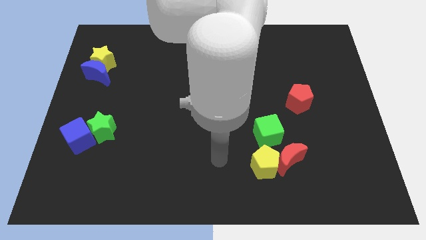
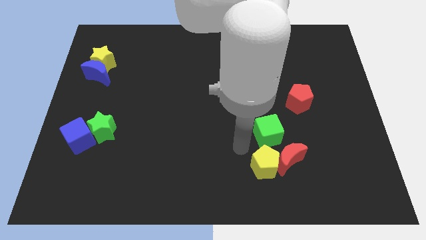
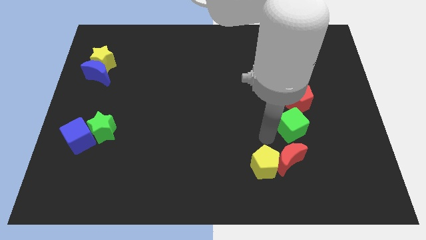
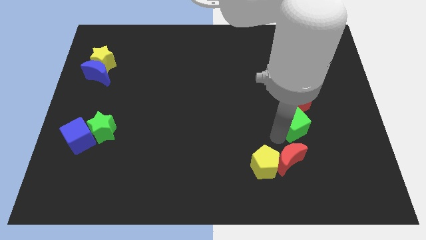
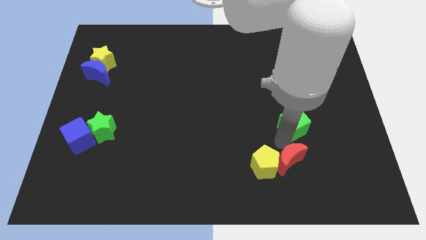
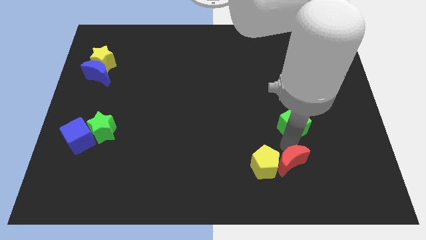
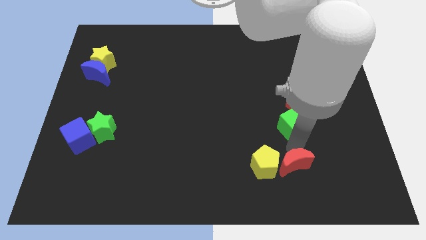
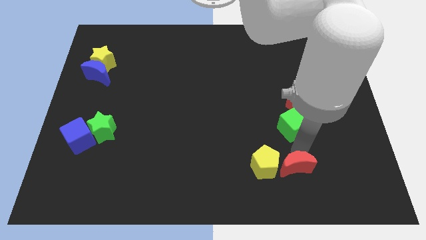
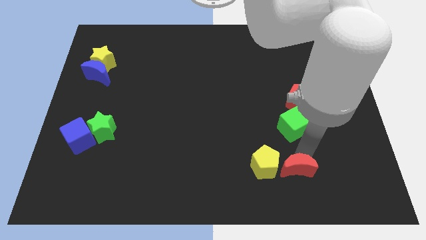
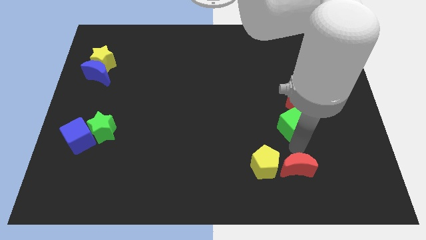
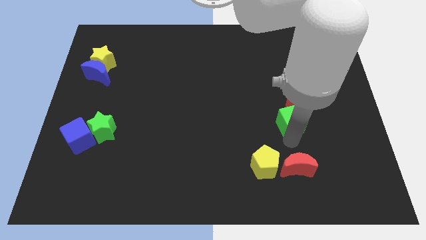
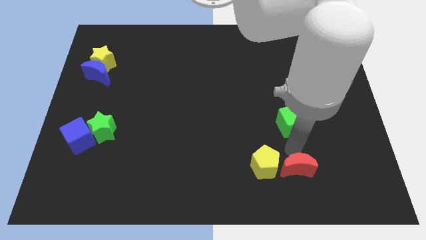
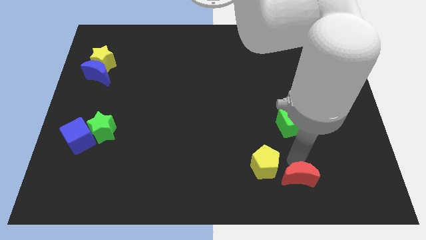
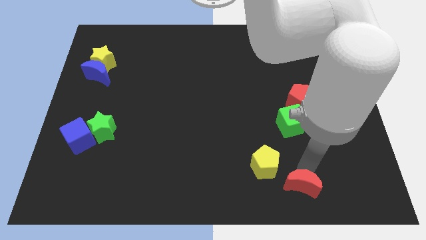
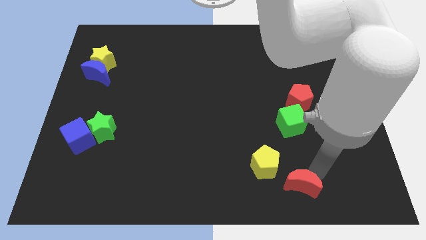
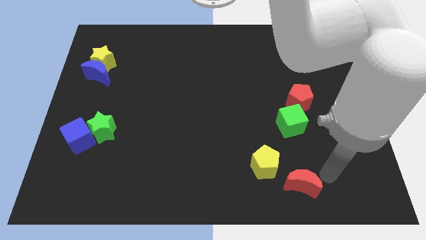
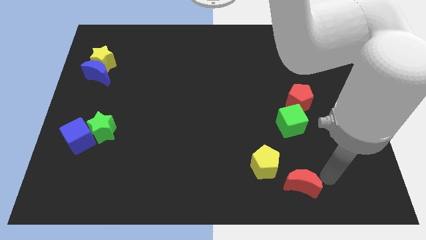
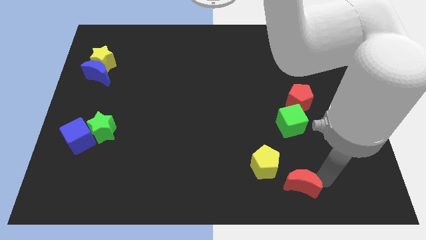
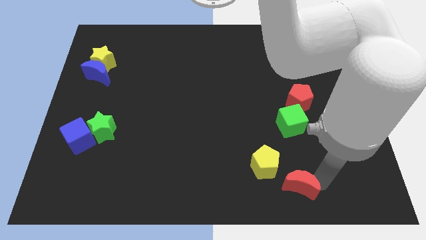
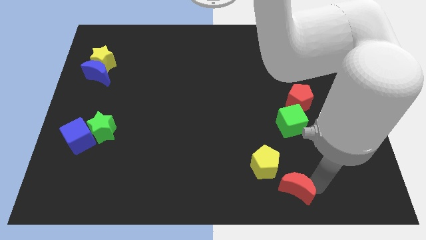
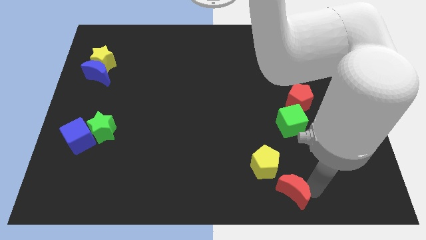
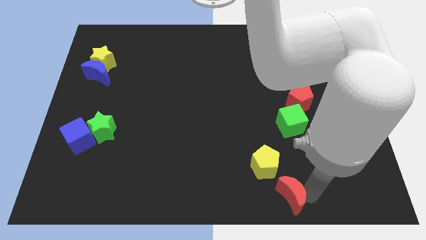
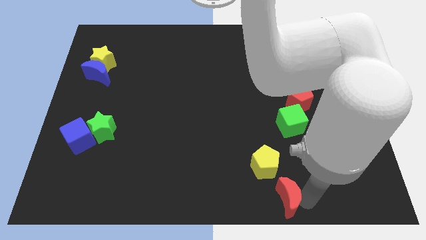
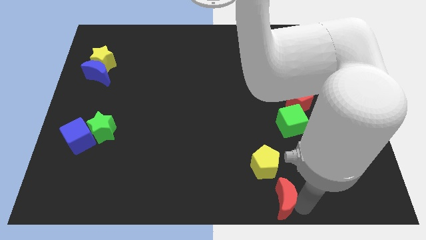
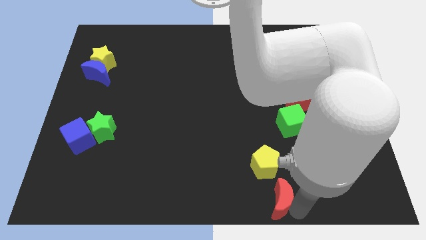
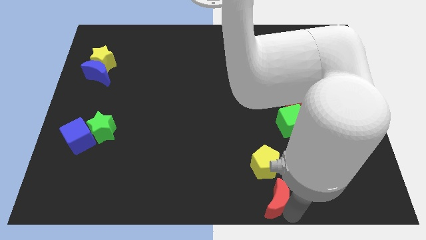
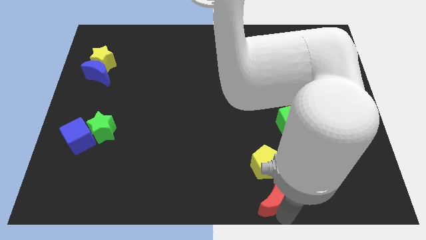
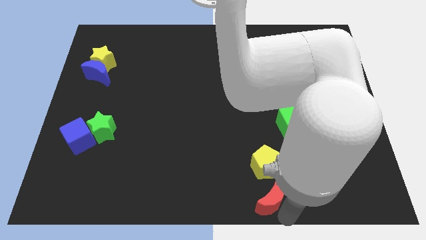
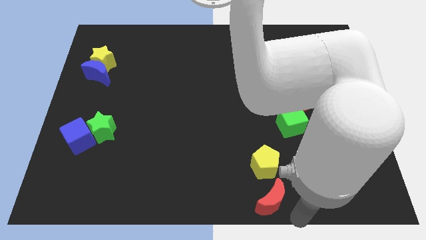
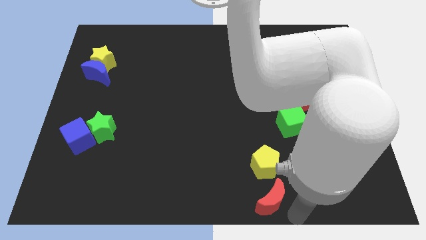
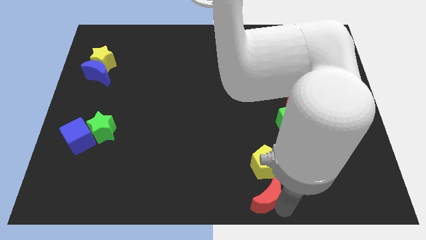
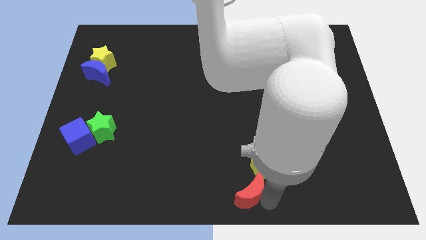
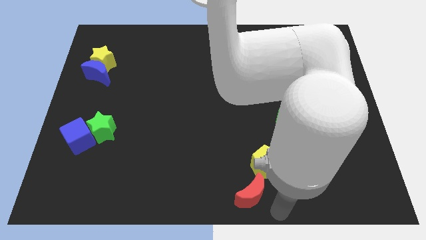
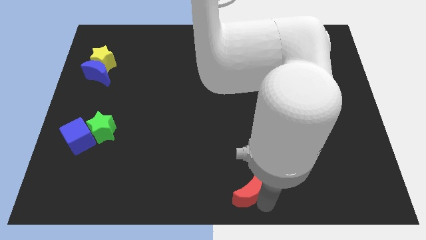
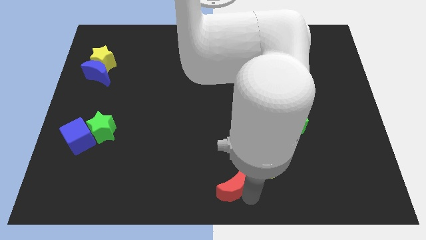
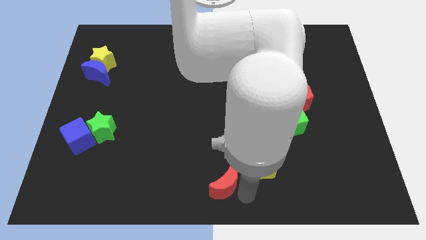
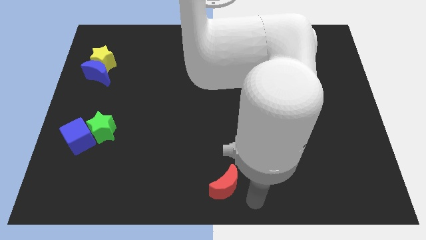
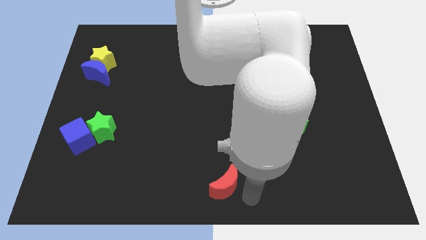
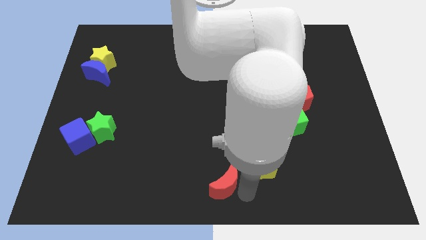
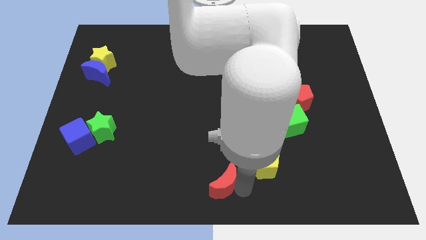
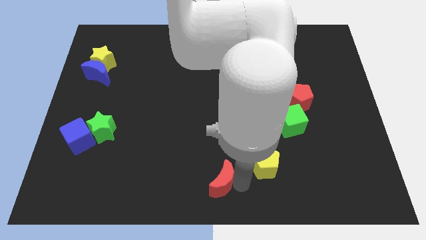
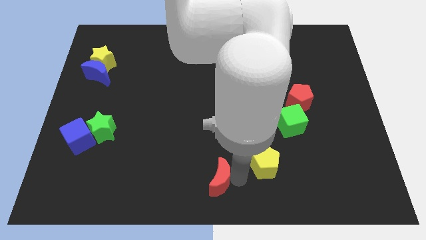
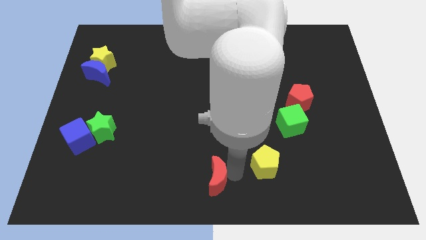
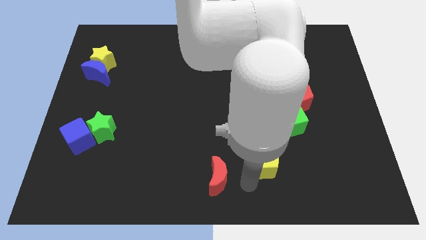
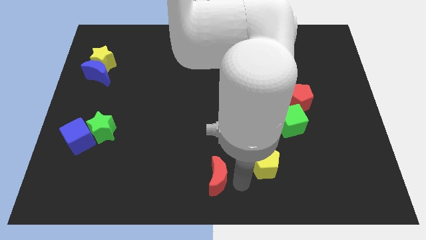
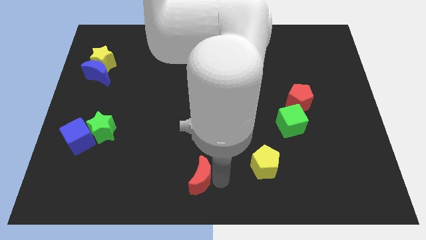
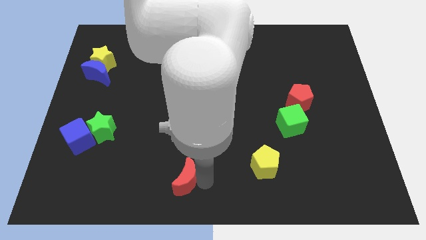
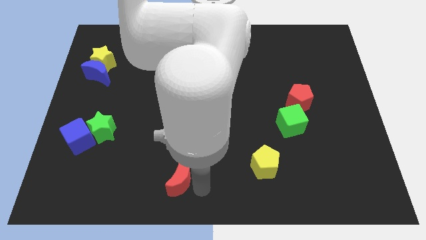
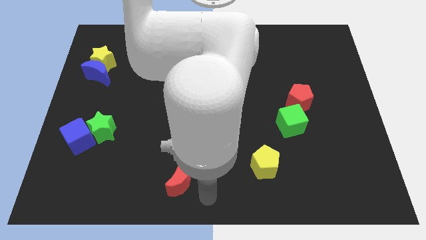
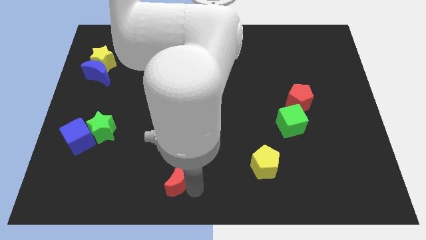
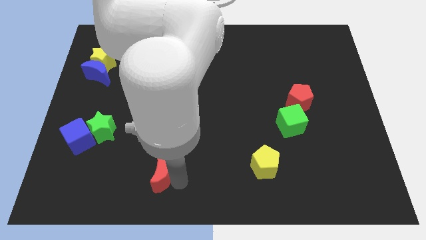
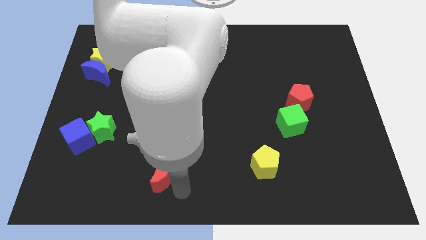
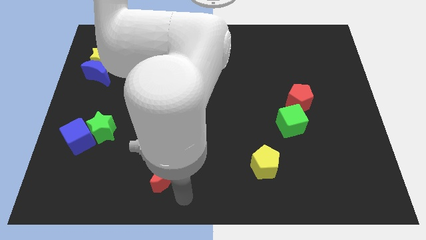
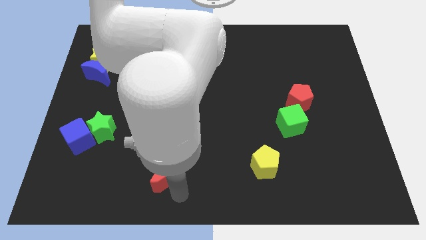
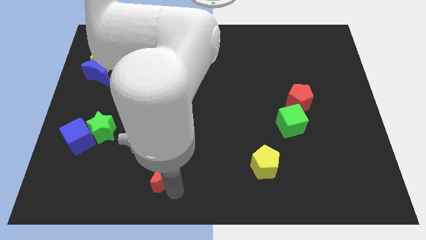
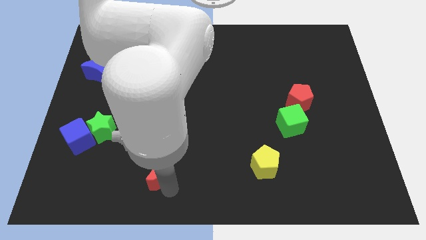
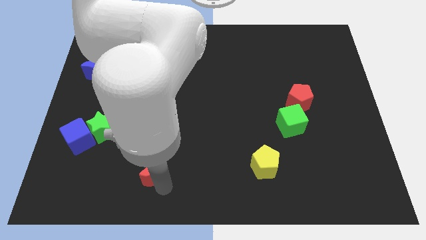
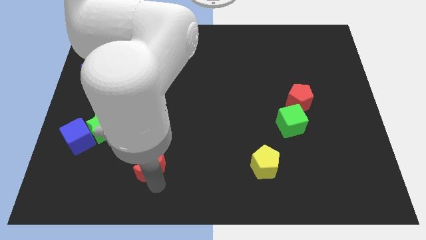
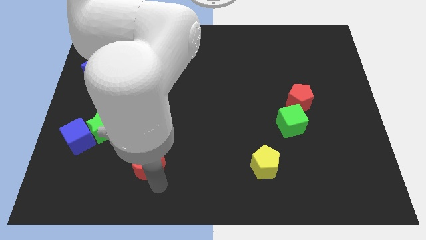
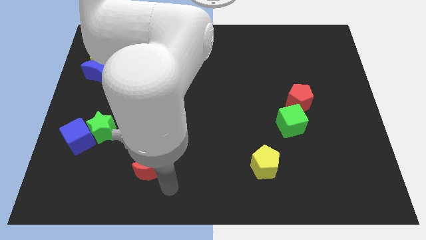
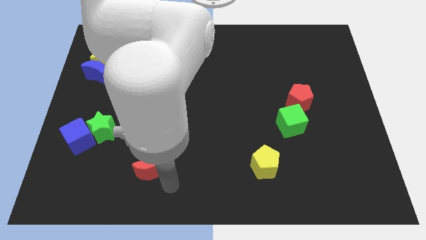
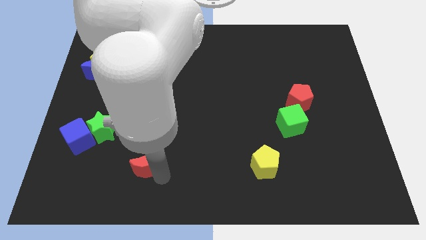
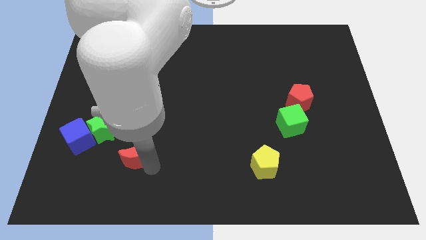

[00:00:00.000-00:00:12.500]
put the red moon to the bottom right side of the green star

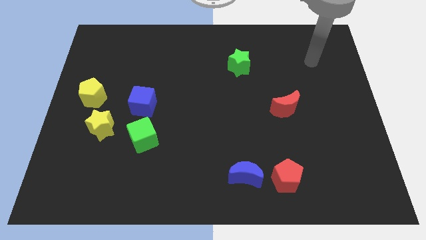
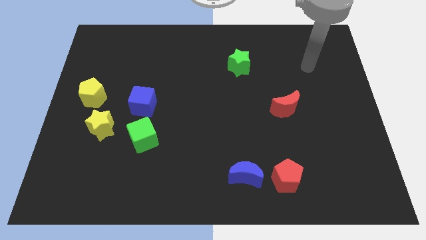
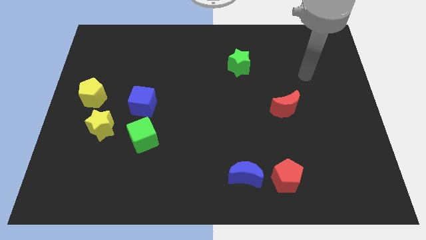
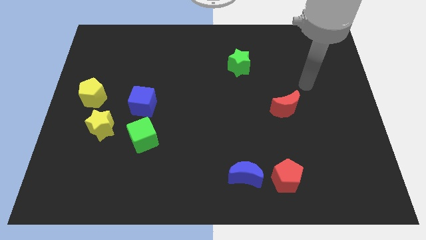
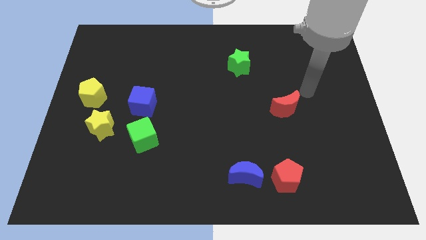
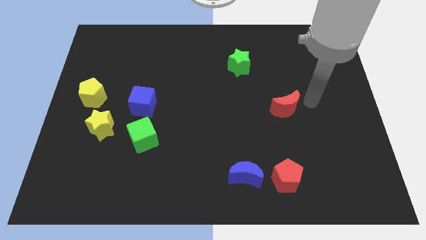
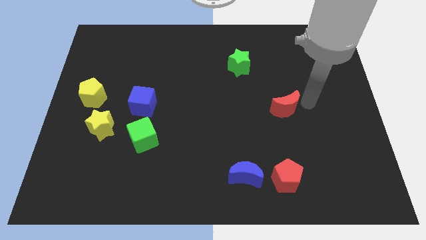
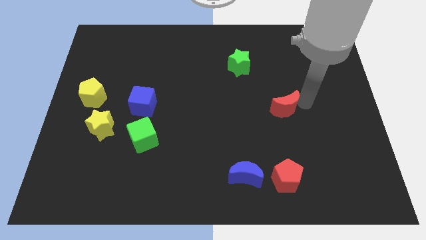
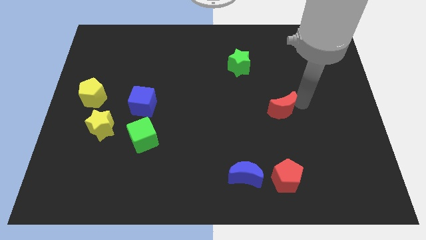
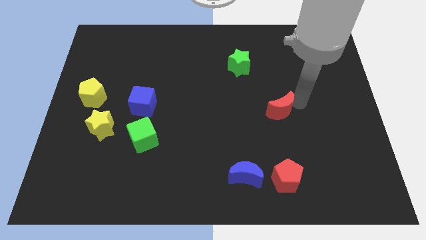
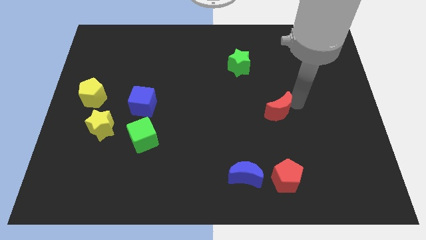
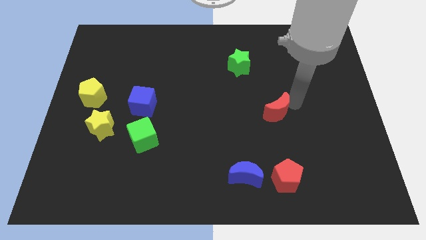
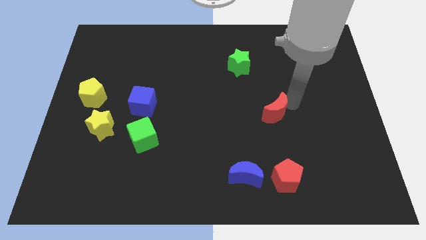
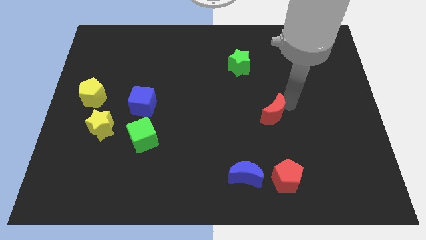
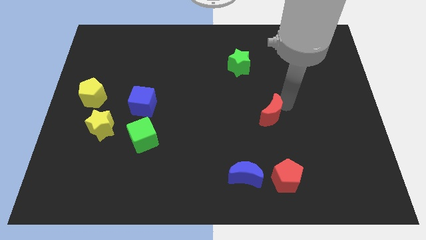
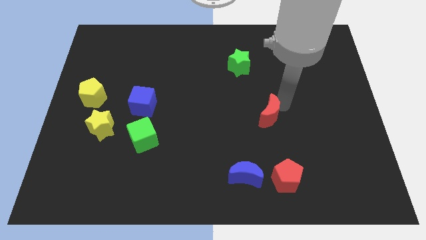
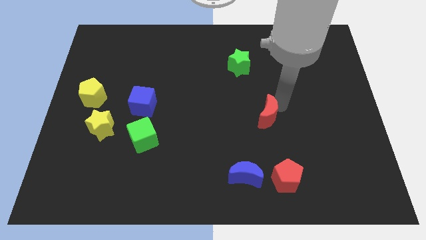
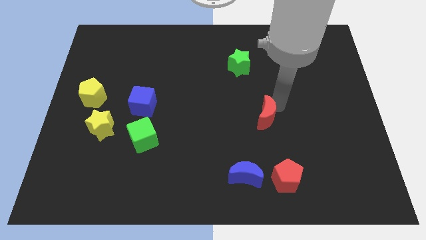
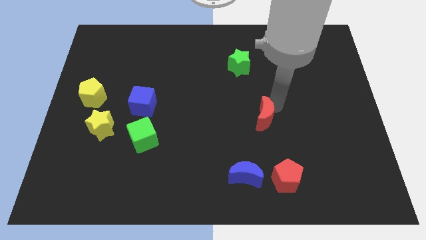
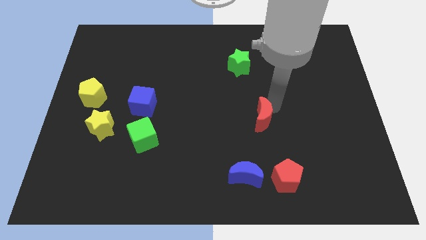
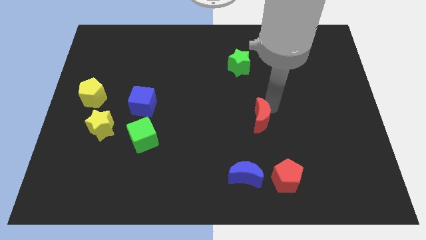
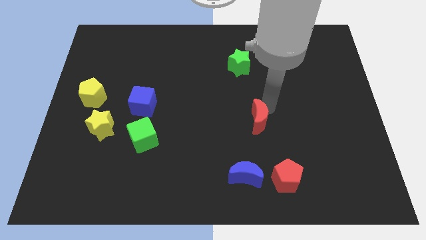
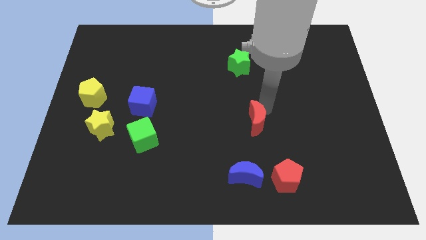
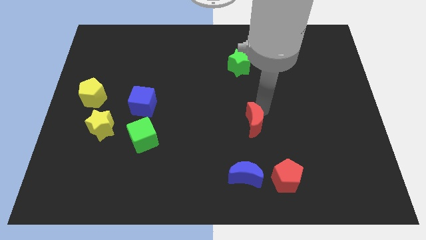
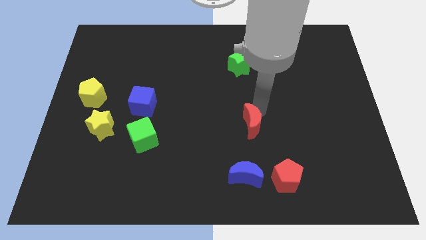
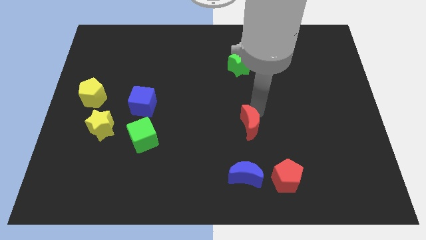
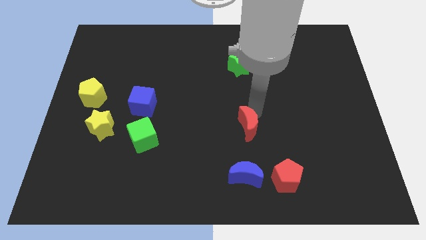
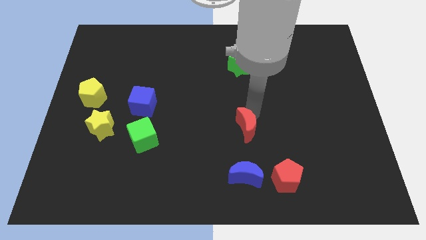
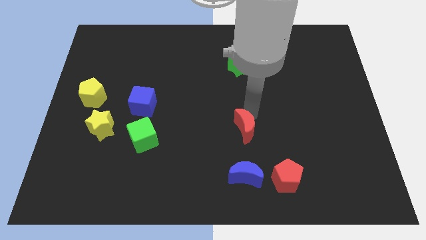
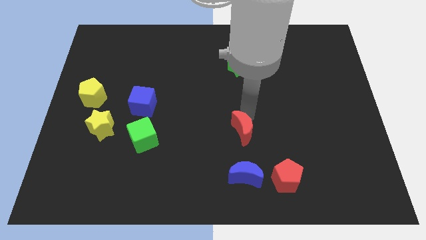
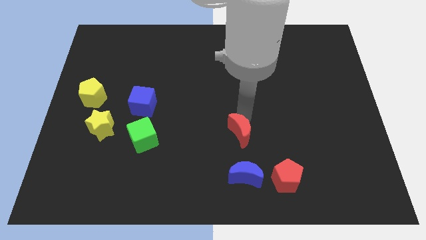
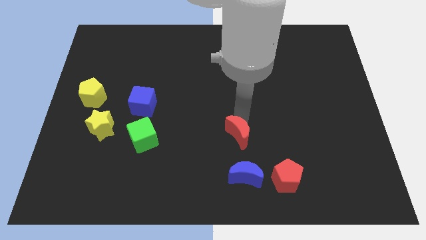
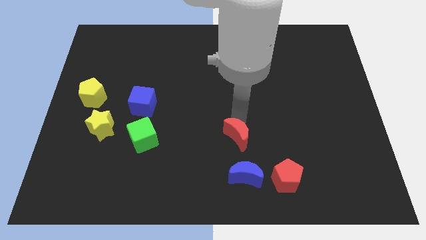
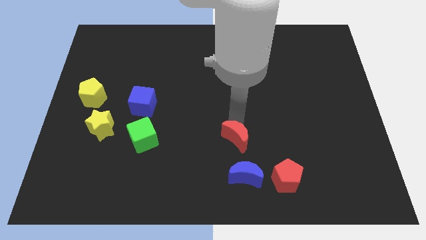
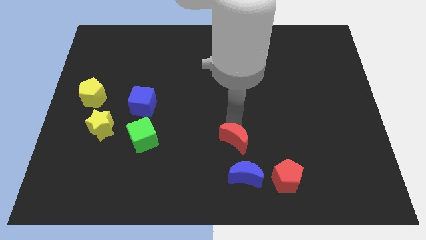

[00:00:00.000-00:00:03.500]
put the red moon to the top left of the blue moon
